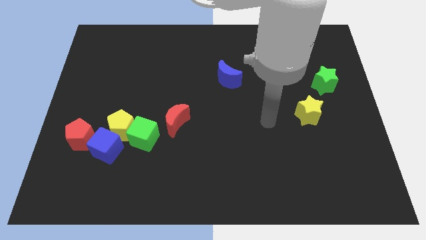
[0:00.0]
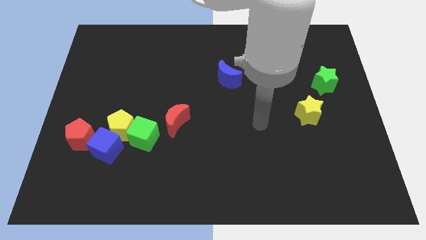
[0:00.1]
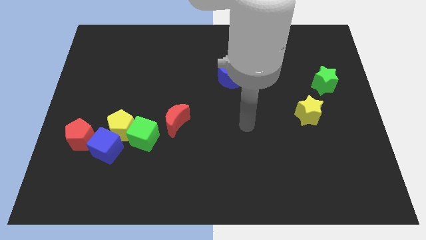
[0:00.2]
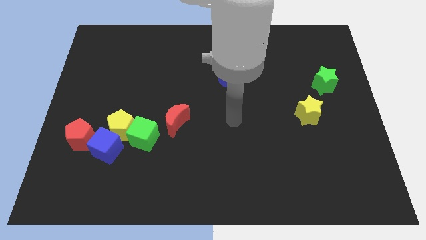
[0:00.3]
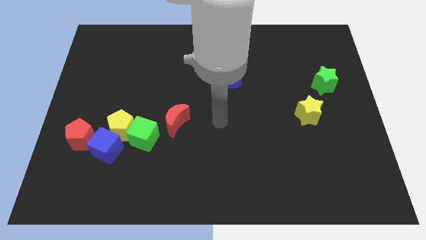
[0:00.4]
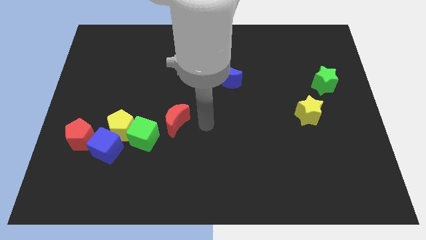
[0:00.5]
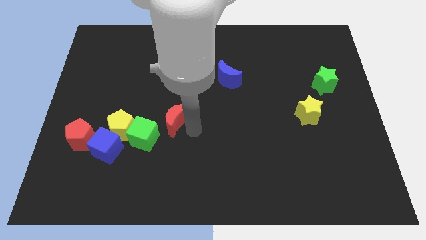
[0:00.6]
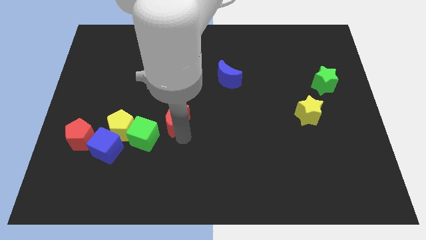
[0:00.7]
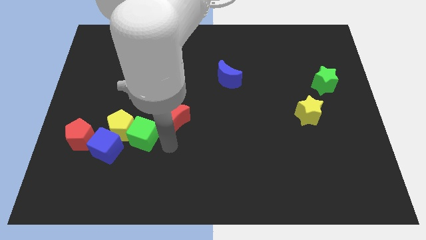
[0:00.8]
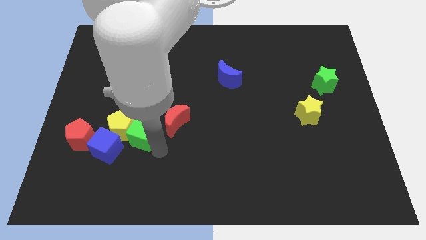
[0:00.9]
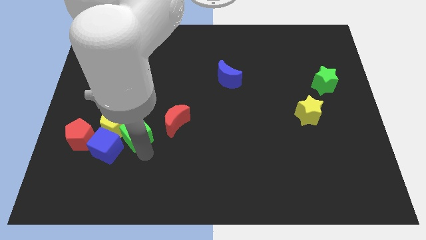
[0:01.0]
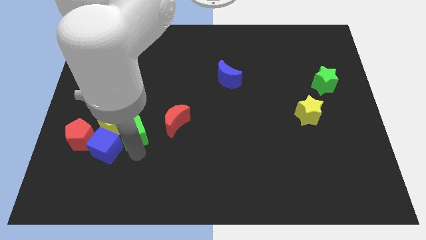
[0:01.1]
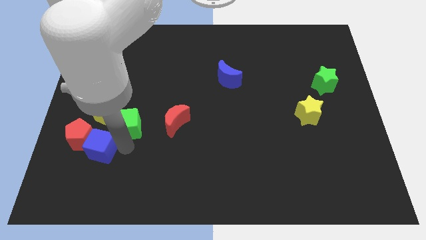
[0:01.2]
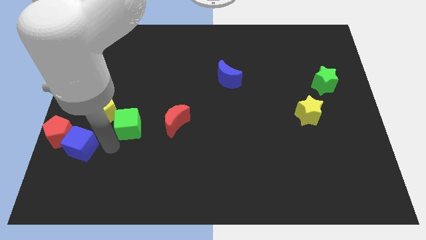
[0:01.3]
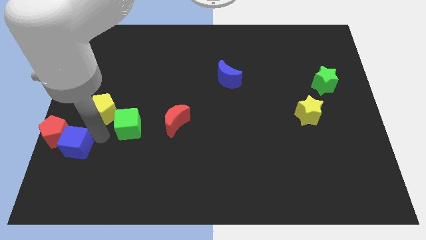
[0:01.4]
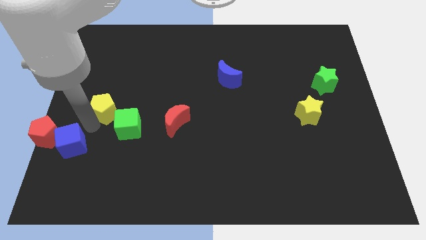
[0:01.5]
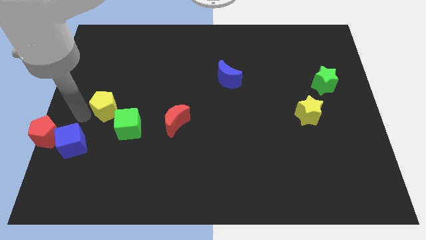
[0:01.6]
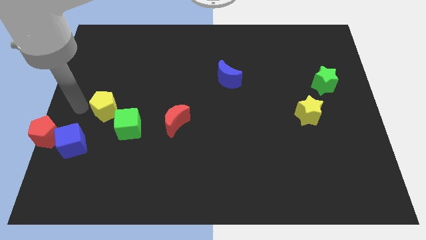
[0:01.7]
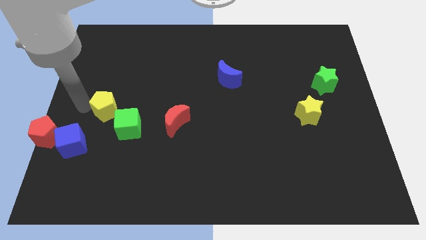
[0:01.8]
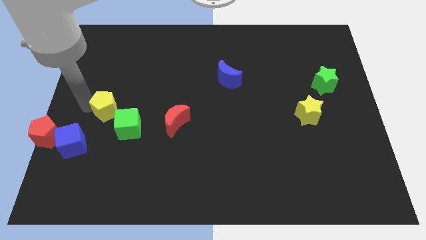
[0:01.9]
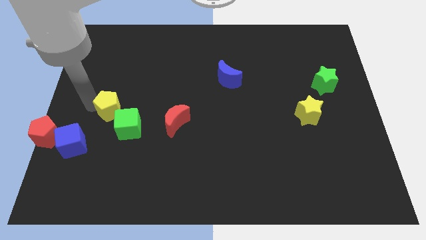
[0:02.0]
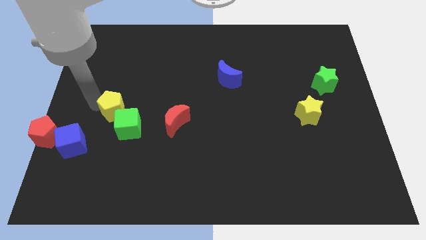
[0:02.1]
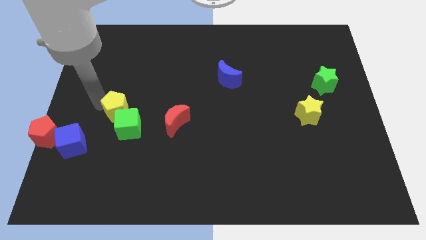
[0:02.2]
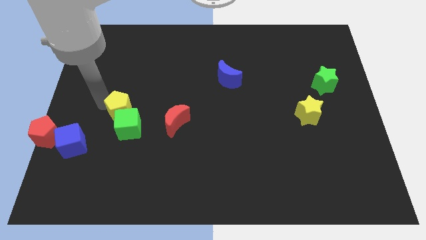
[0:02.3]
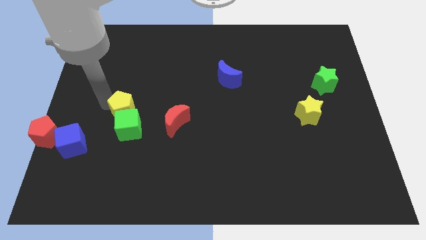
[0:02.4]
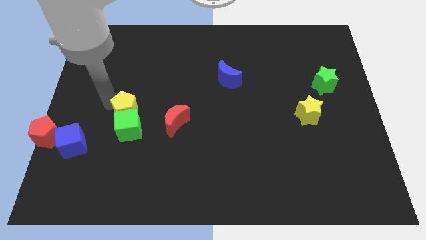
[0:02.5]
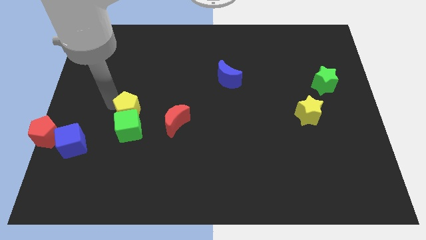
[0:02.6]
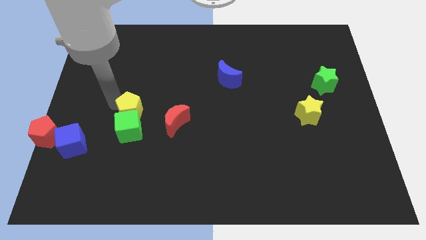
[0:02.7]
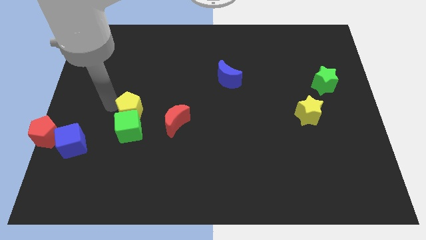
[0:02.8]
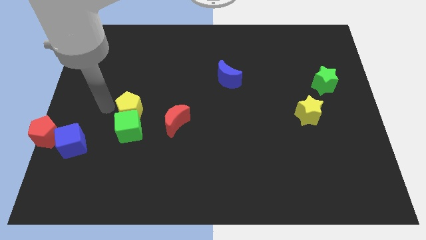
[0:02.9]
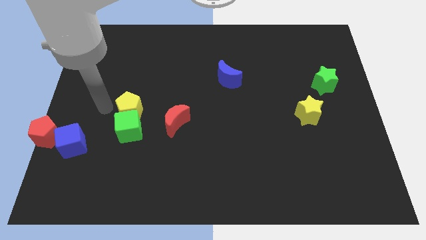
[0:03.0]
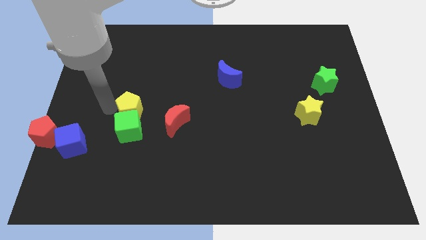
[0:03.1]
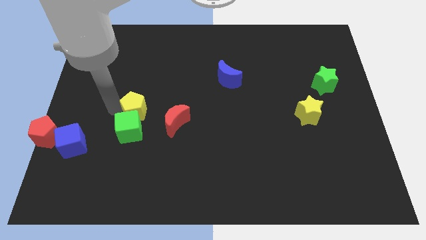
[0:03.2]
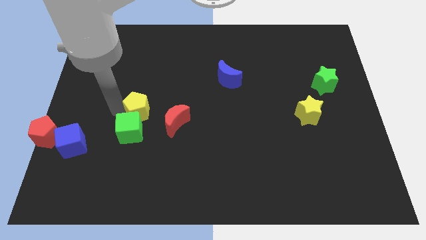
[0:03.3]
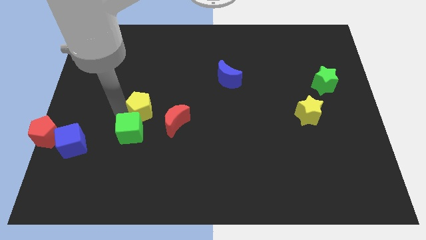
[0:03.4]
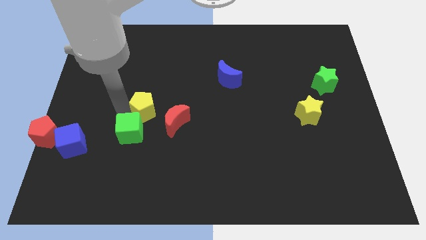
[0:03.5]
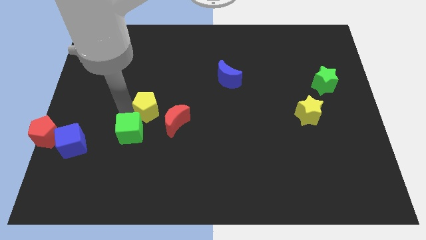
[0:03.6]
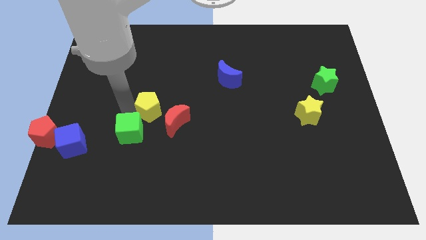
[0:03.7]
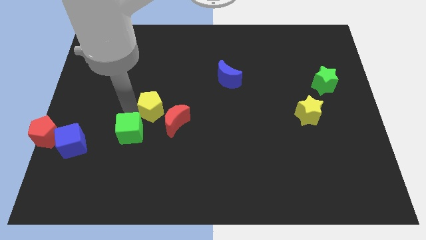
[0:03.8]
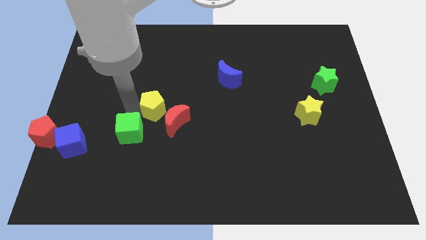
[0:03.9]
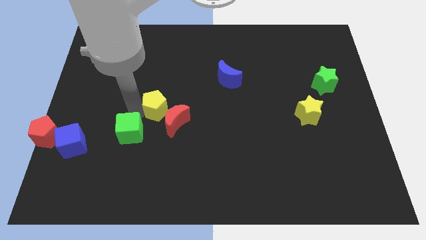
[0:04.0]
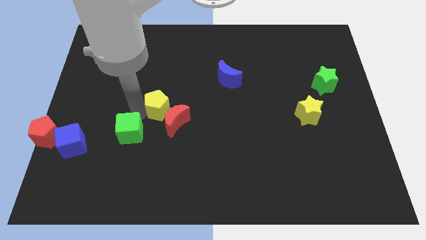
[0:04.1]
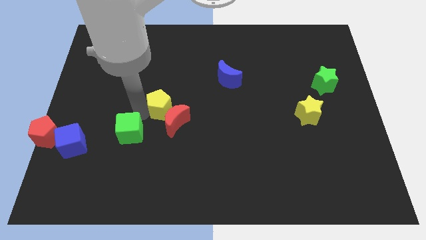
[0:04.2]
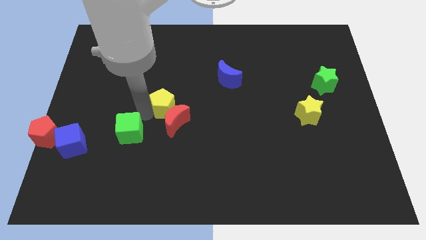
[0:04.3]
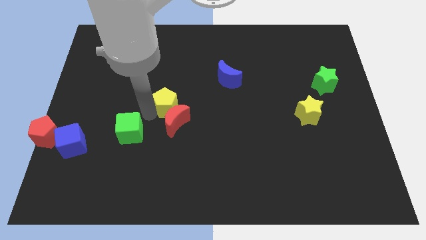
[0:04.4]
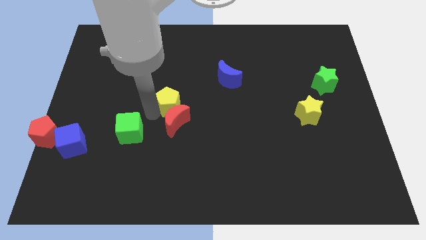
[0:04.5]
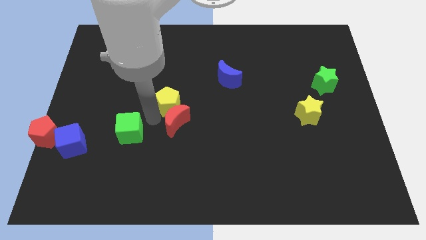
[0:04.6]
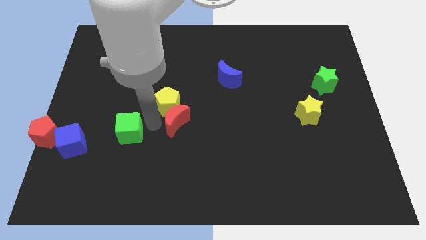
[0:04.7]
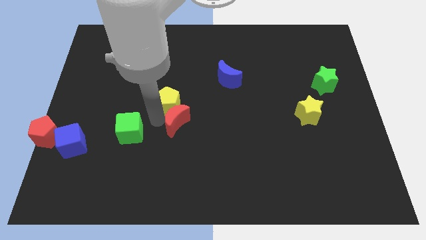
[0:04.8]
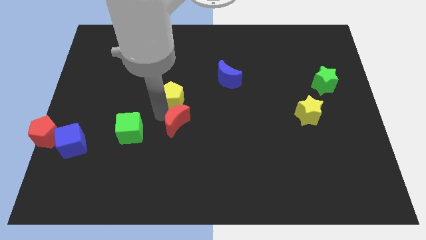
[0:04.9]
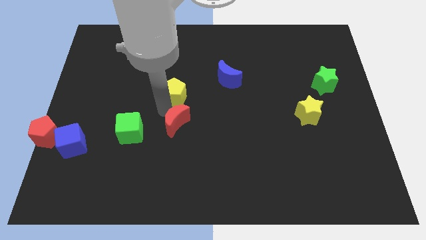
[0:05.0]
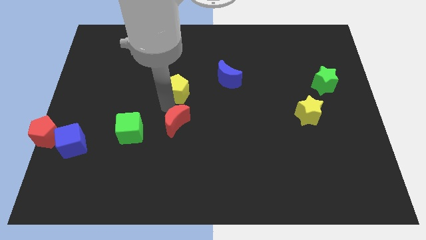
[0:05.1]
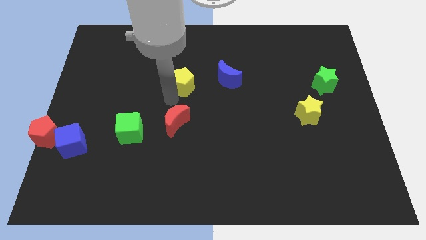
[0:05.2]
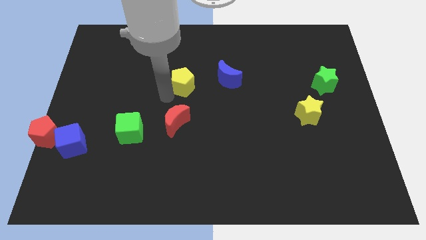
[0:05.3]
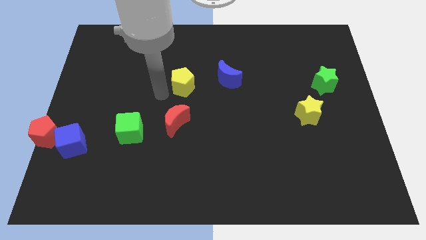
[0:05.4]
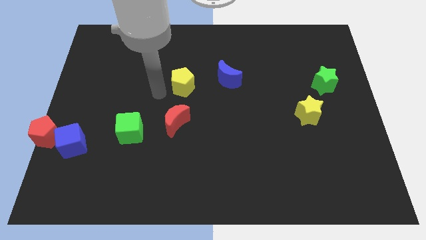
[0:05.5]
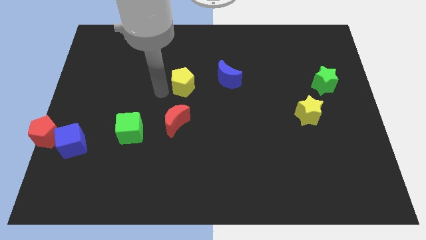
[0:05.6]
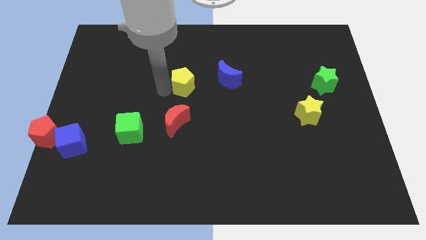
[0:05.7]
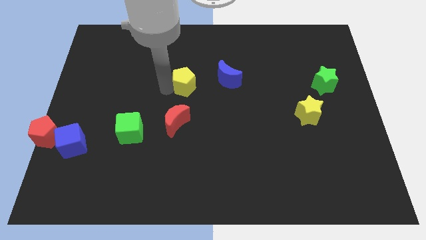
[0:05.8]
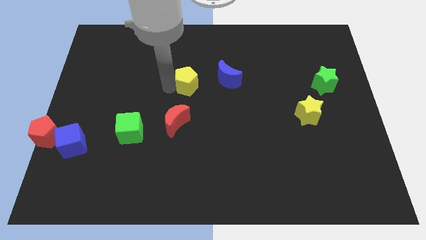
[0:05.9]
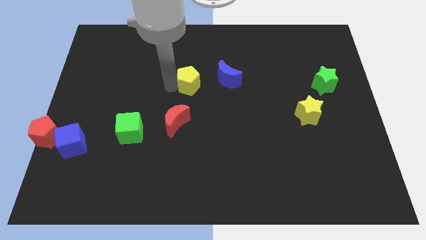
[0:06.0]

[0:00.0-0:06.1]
push the yellow pentagon diagonally upwards and to the right

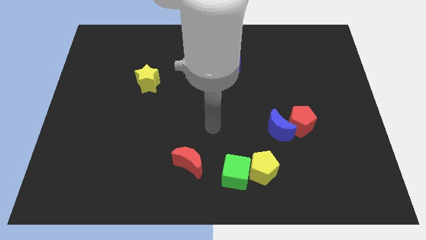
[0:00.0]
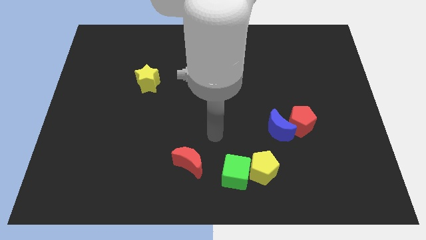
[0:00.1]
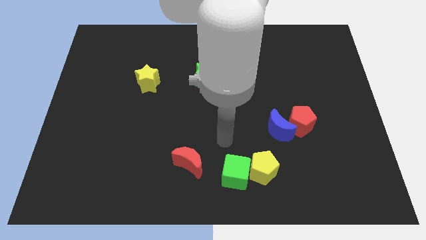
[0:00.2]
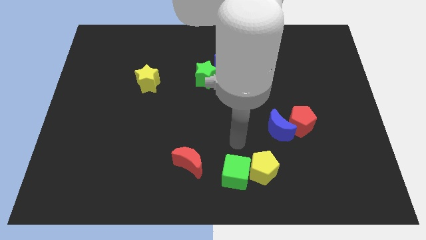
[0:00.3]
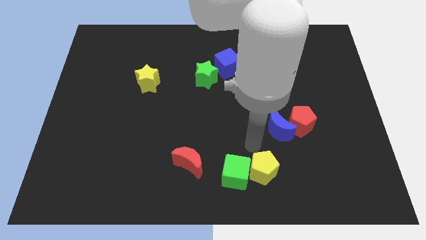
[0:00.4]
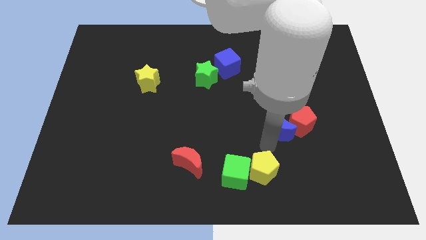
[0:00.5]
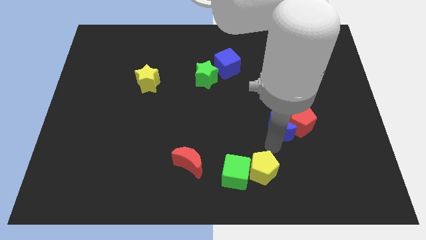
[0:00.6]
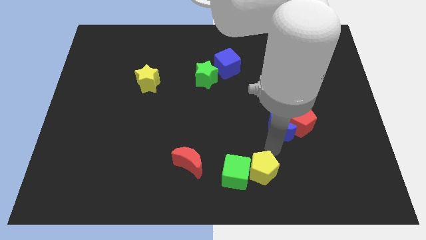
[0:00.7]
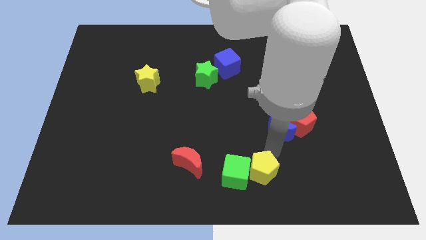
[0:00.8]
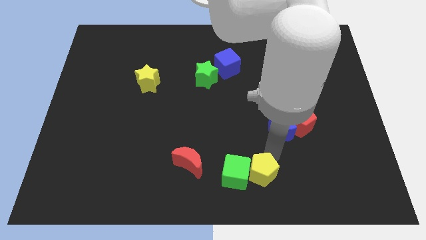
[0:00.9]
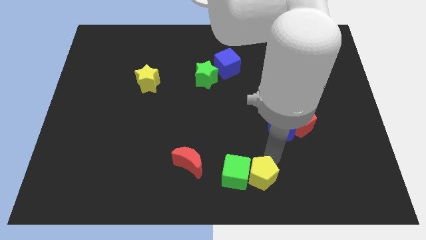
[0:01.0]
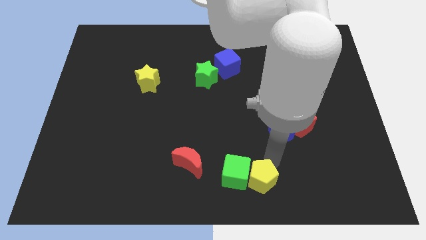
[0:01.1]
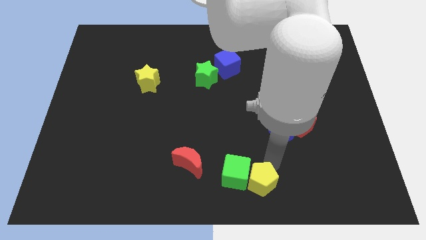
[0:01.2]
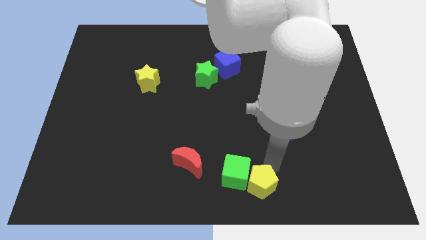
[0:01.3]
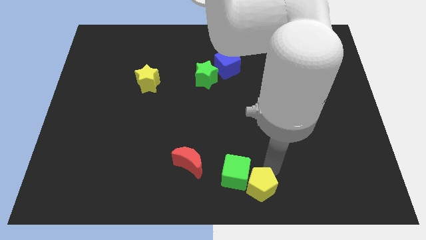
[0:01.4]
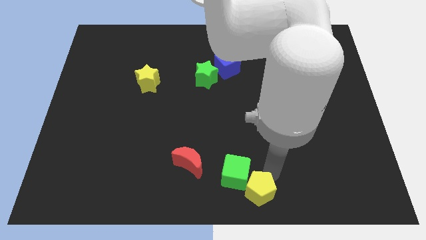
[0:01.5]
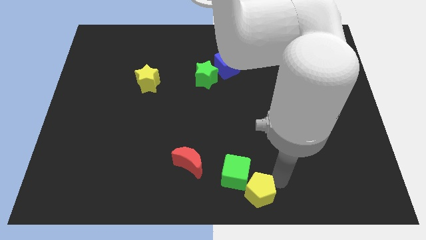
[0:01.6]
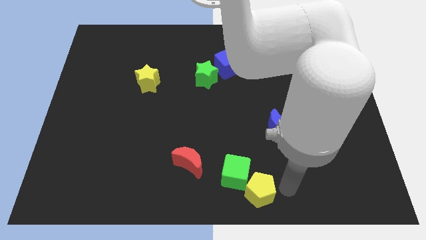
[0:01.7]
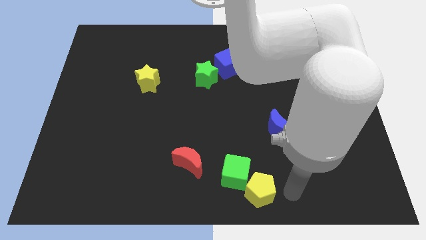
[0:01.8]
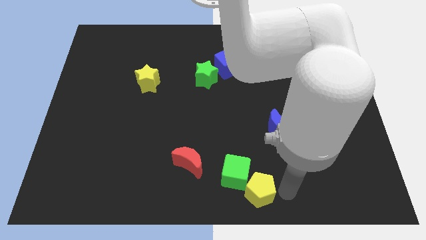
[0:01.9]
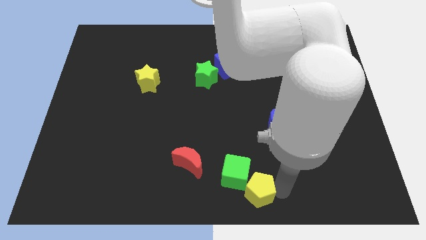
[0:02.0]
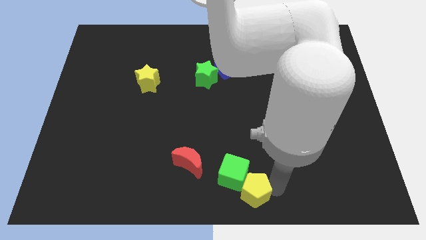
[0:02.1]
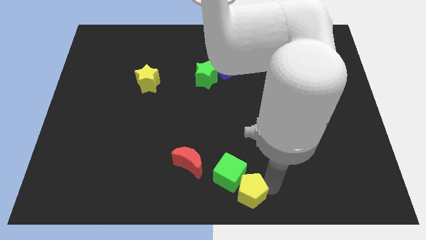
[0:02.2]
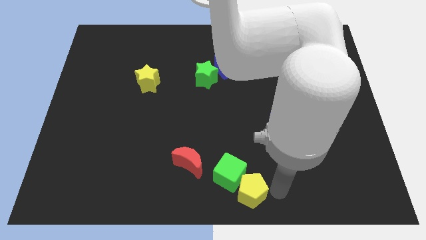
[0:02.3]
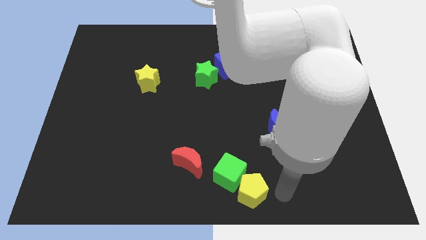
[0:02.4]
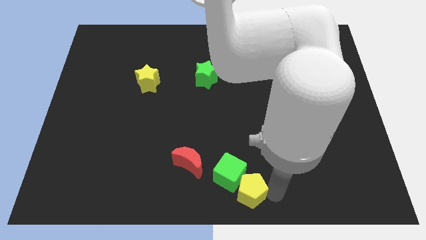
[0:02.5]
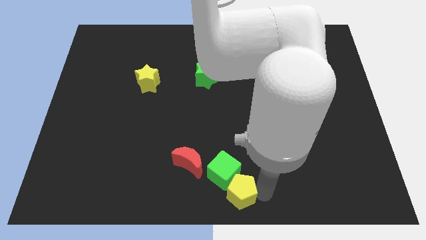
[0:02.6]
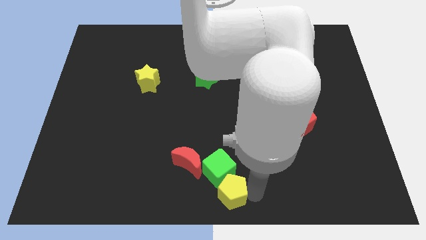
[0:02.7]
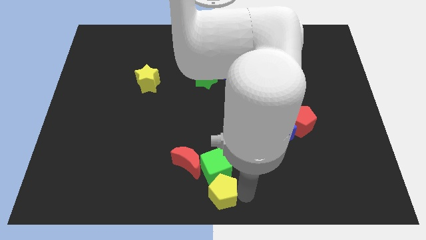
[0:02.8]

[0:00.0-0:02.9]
push the yellow pentagon a little to the left
